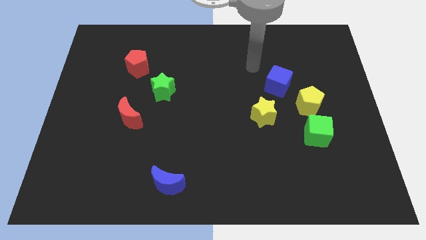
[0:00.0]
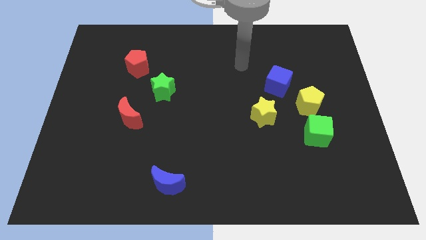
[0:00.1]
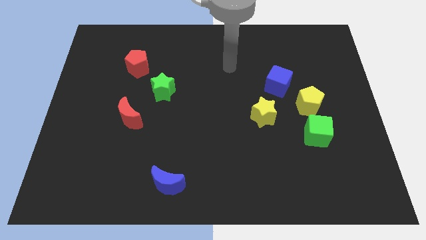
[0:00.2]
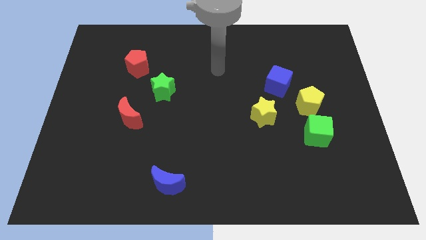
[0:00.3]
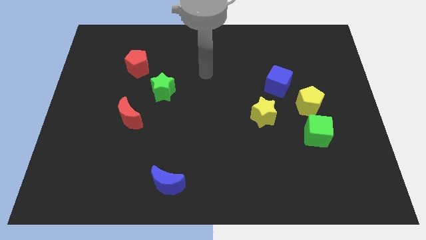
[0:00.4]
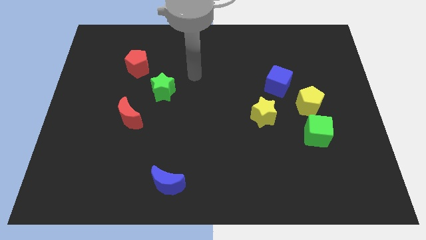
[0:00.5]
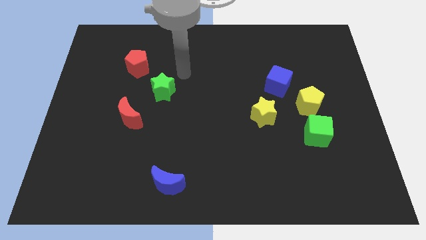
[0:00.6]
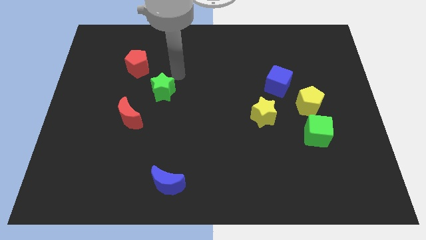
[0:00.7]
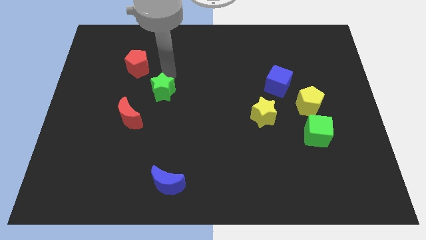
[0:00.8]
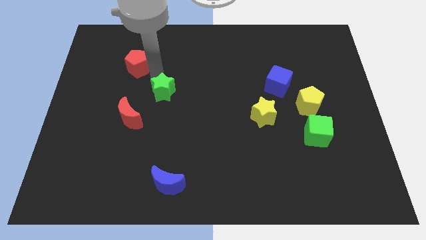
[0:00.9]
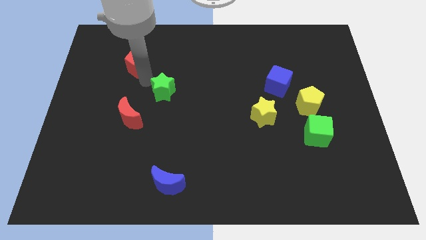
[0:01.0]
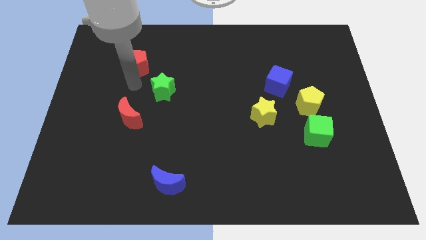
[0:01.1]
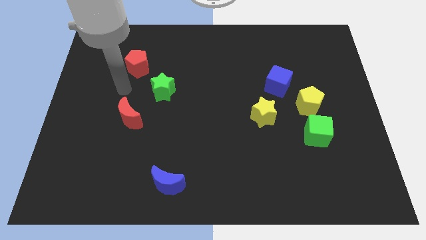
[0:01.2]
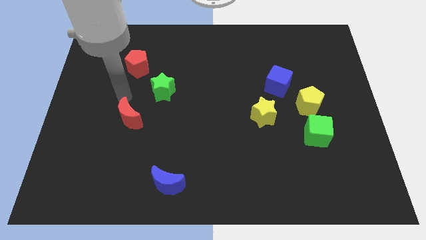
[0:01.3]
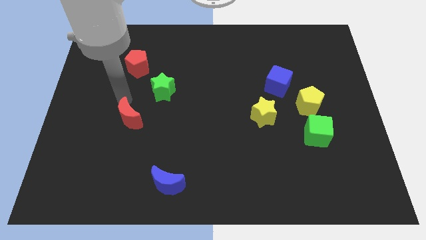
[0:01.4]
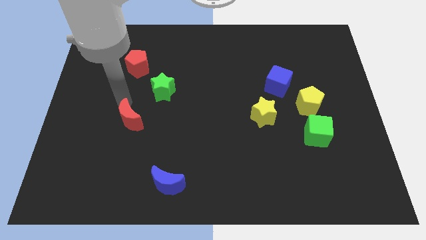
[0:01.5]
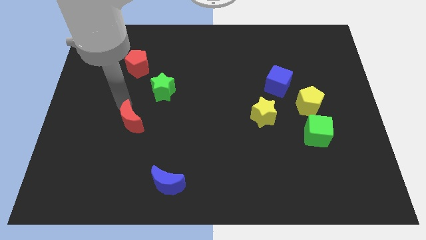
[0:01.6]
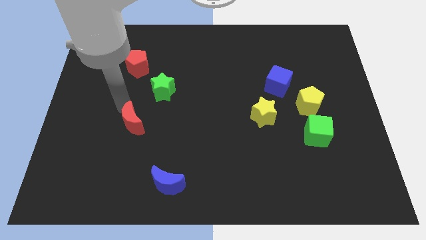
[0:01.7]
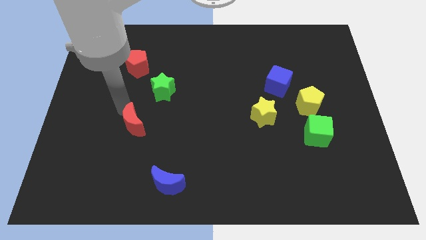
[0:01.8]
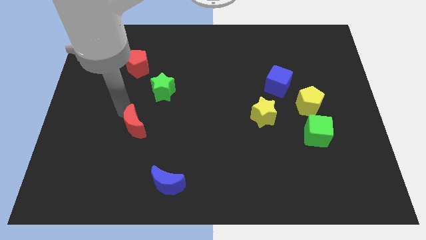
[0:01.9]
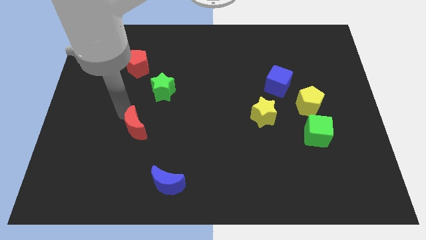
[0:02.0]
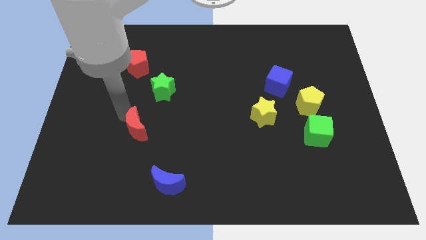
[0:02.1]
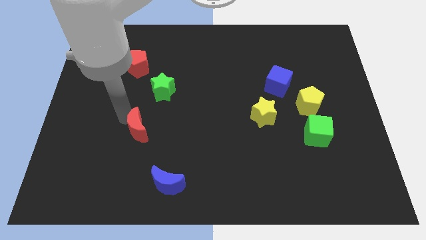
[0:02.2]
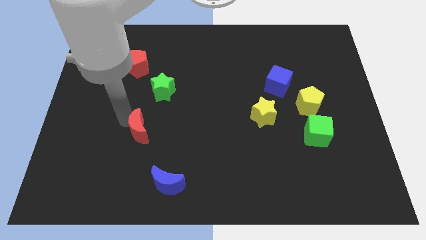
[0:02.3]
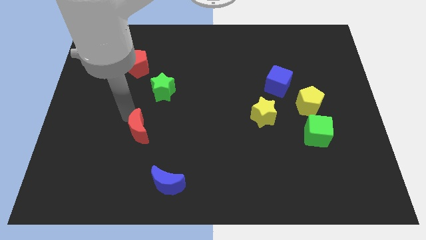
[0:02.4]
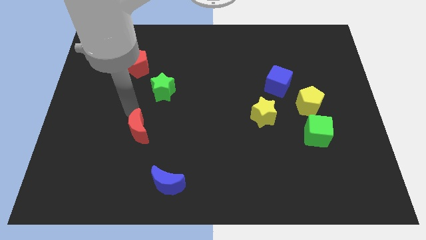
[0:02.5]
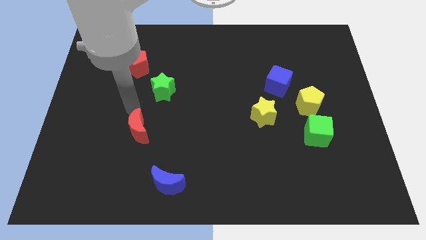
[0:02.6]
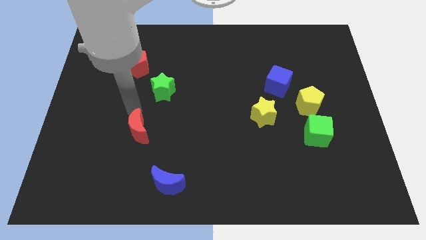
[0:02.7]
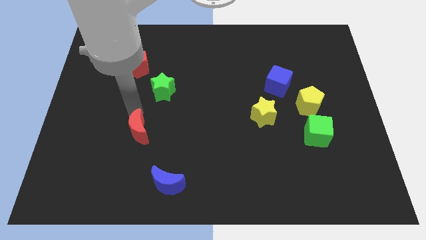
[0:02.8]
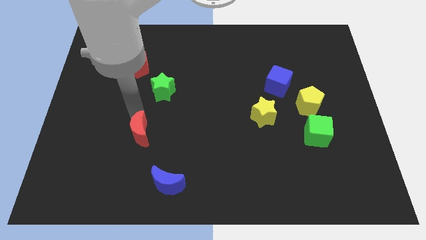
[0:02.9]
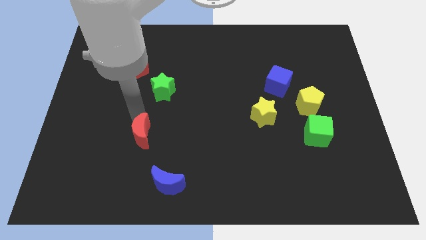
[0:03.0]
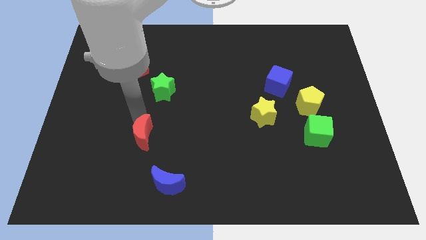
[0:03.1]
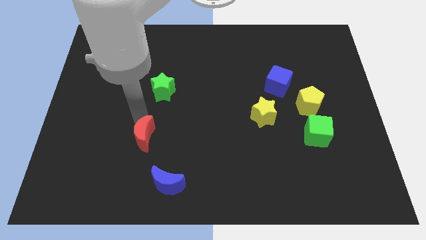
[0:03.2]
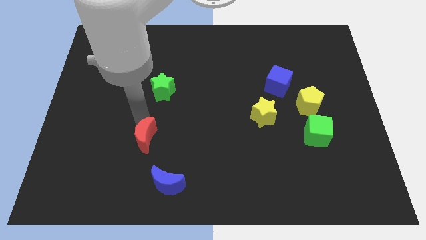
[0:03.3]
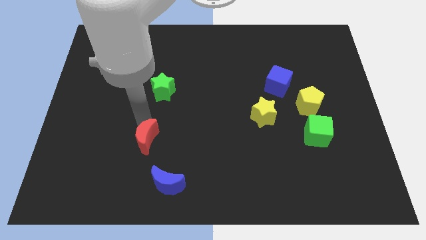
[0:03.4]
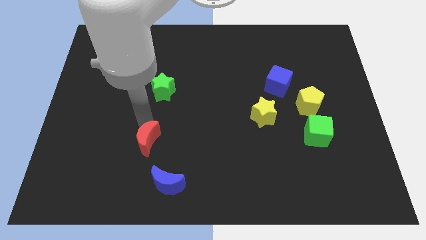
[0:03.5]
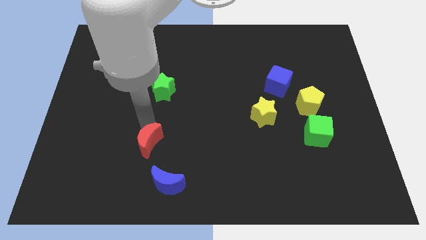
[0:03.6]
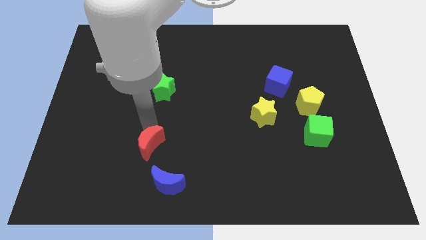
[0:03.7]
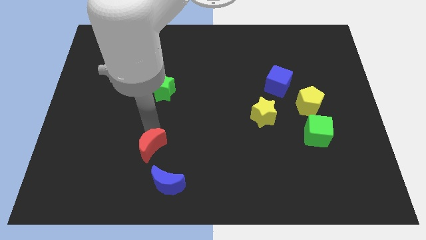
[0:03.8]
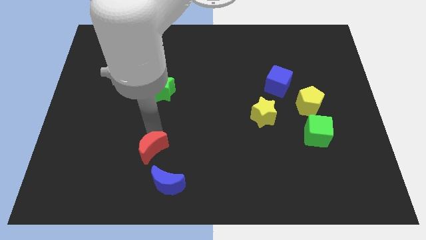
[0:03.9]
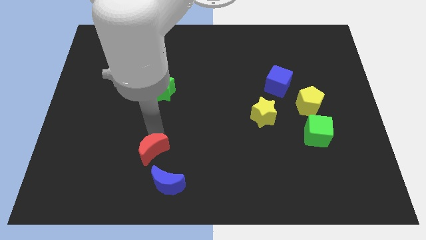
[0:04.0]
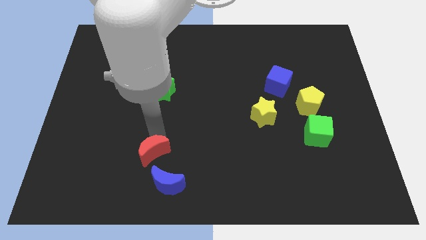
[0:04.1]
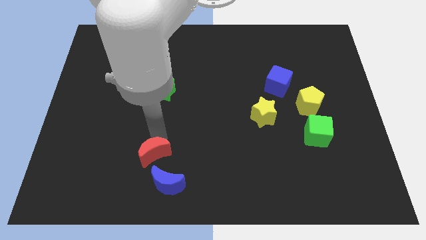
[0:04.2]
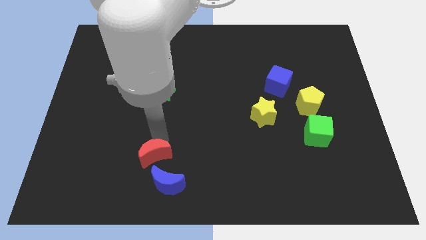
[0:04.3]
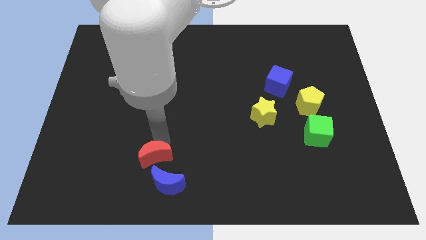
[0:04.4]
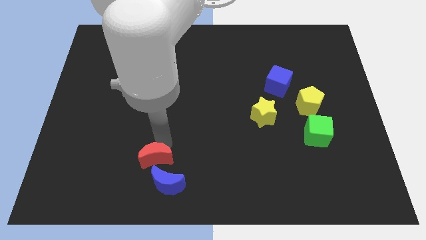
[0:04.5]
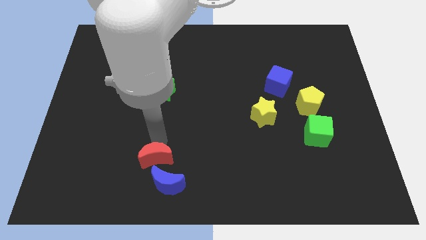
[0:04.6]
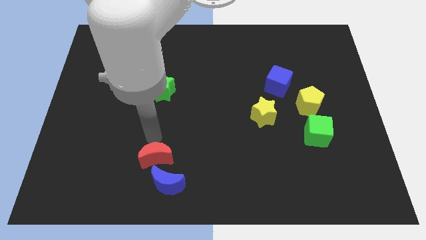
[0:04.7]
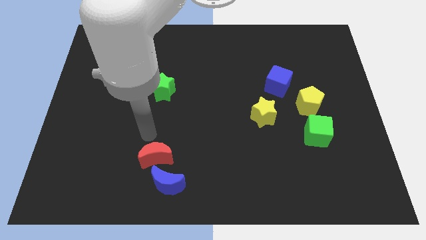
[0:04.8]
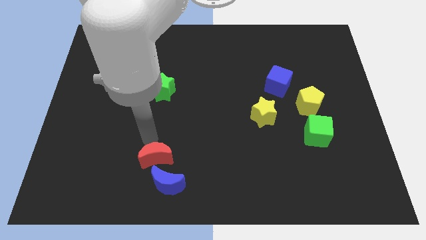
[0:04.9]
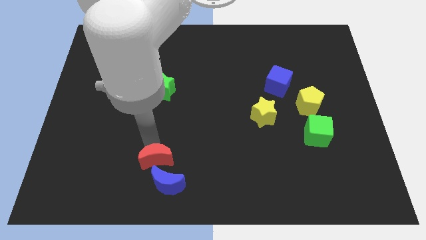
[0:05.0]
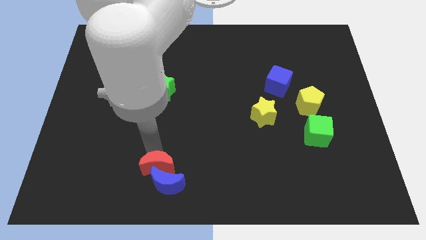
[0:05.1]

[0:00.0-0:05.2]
put the red moon close to the blue moon

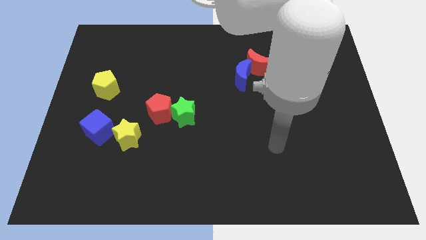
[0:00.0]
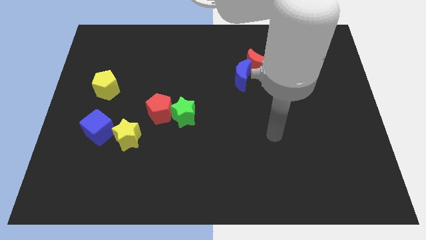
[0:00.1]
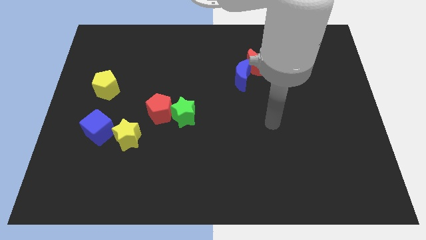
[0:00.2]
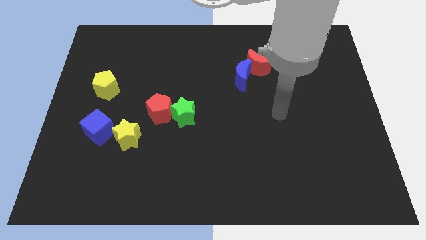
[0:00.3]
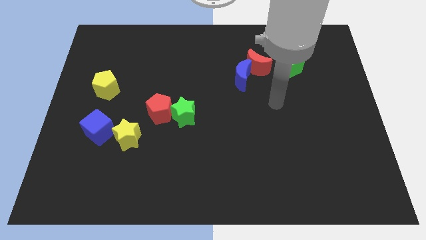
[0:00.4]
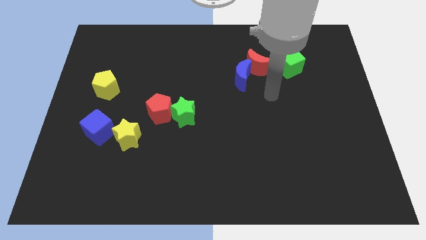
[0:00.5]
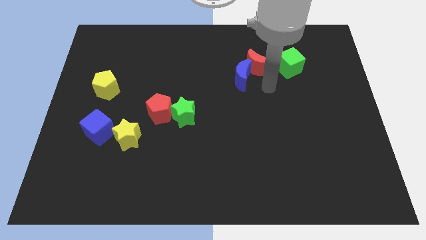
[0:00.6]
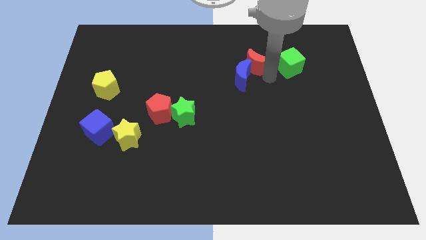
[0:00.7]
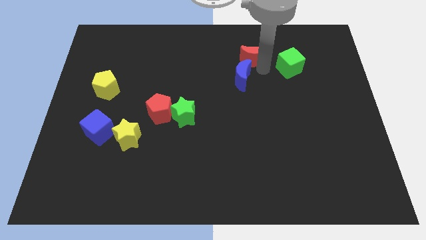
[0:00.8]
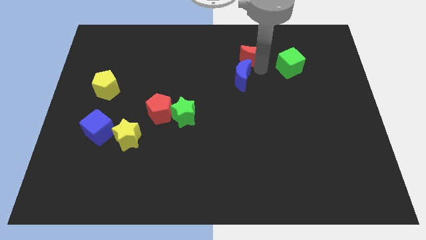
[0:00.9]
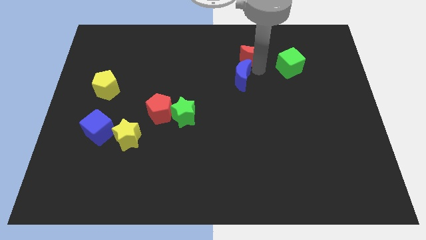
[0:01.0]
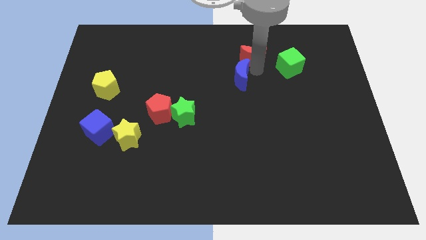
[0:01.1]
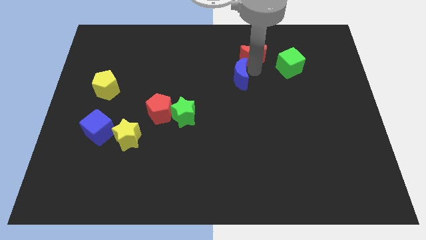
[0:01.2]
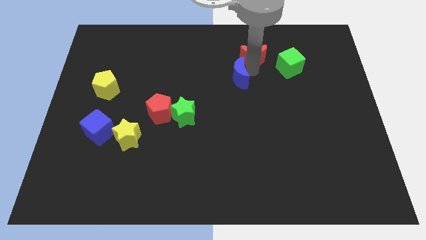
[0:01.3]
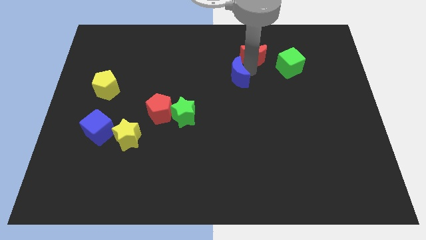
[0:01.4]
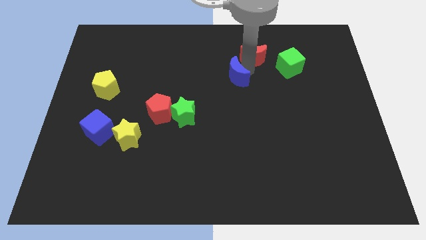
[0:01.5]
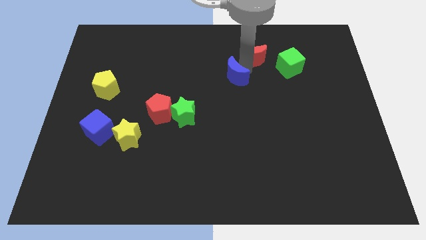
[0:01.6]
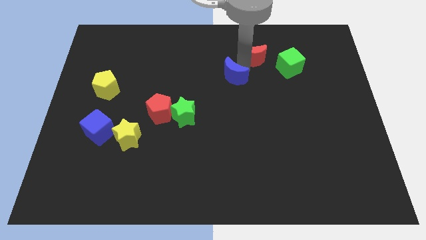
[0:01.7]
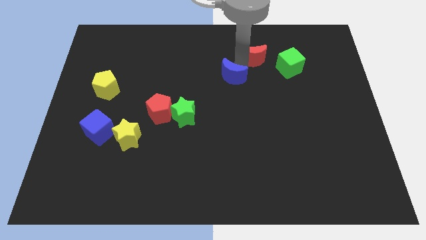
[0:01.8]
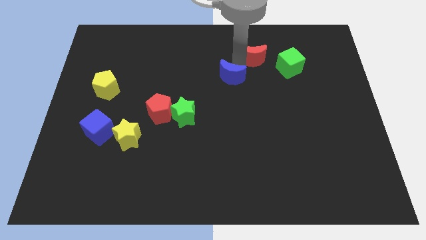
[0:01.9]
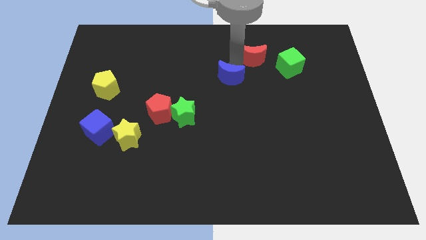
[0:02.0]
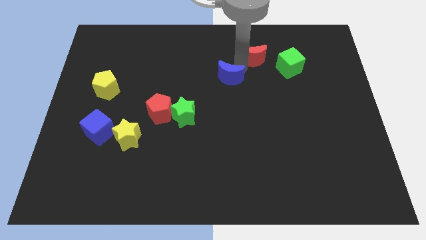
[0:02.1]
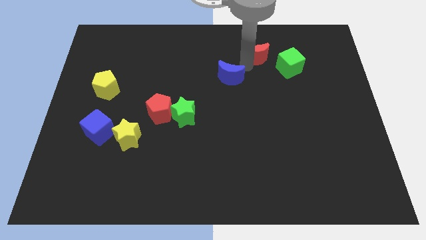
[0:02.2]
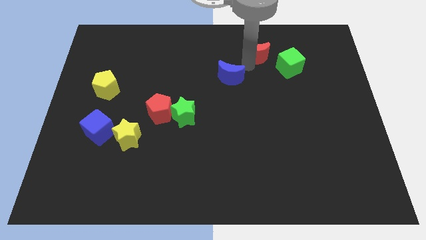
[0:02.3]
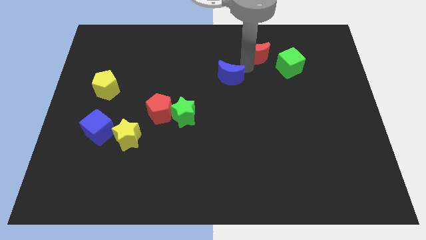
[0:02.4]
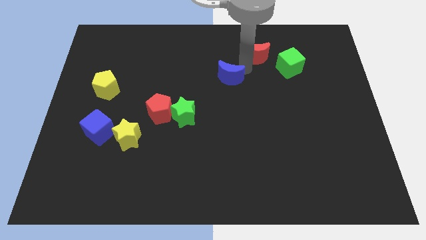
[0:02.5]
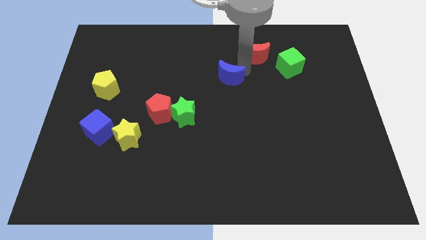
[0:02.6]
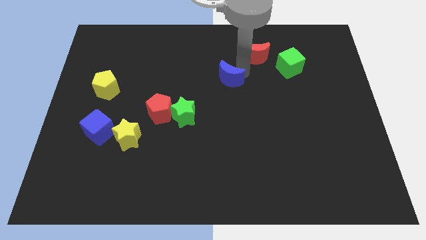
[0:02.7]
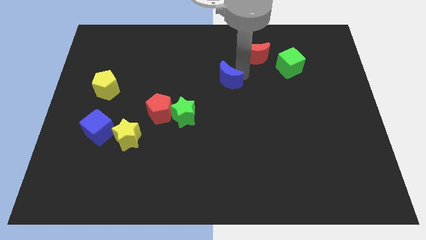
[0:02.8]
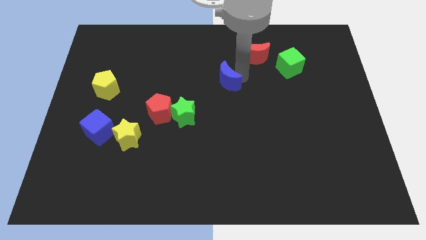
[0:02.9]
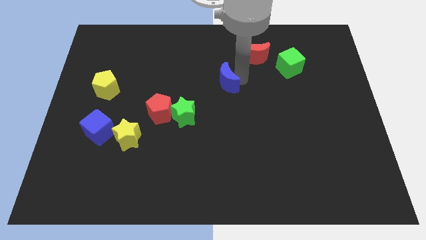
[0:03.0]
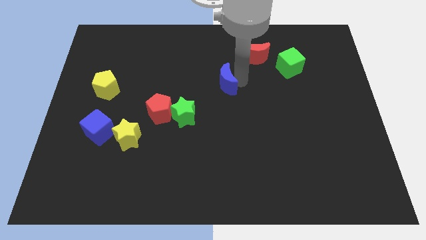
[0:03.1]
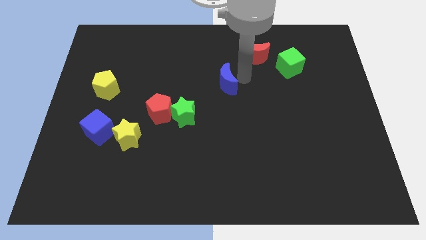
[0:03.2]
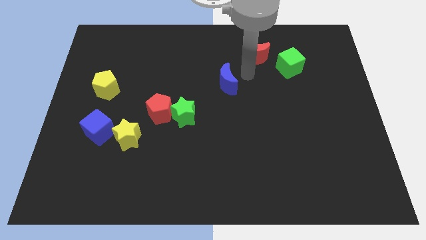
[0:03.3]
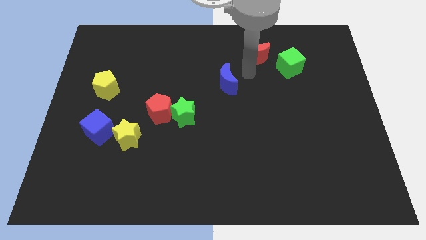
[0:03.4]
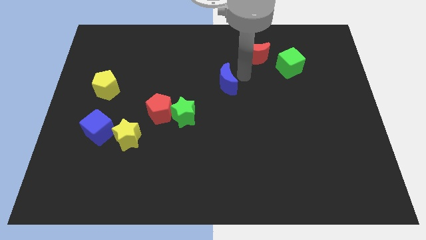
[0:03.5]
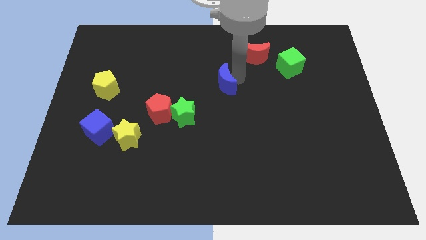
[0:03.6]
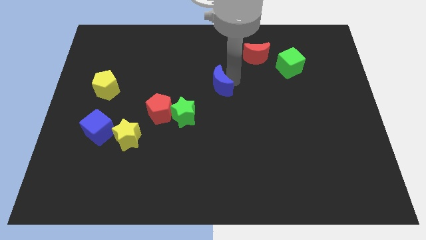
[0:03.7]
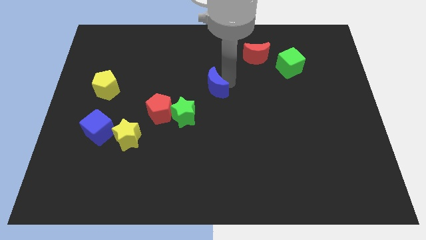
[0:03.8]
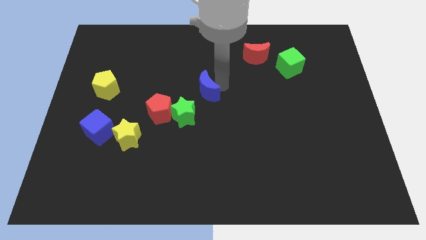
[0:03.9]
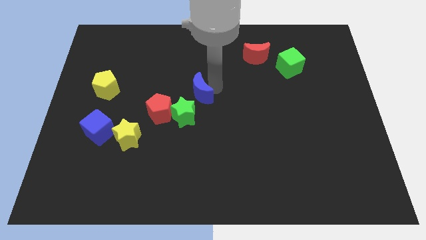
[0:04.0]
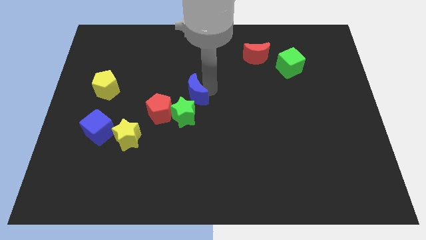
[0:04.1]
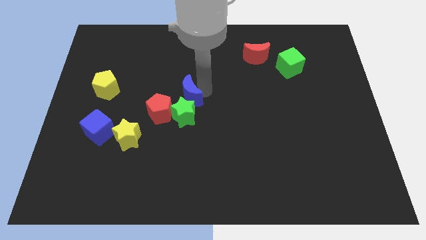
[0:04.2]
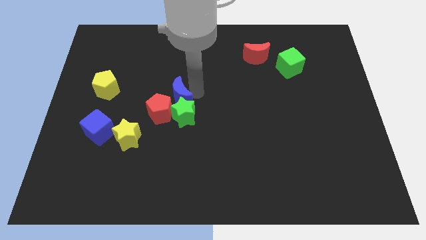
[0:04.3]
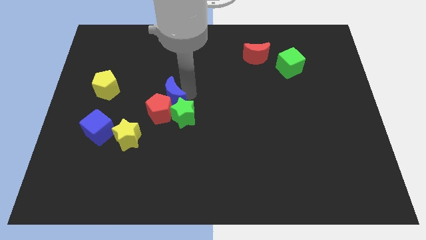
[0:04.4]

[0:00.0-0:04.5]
push the blue moon close to the red pentagon
